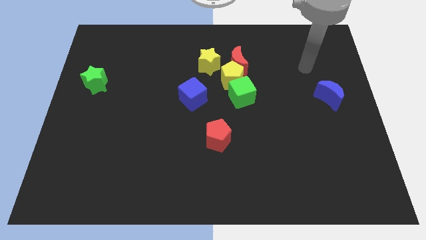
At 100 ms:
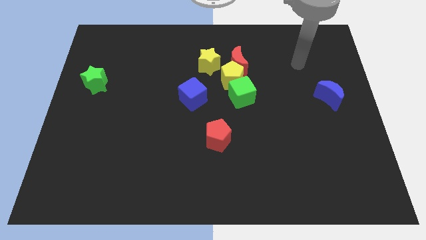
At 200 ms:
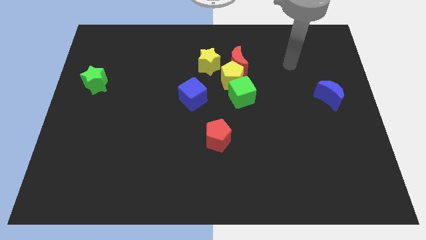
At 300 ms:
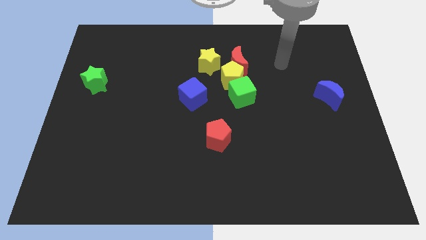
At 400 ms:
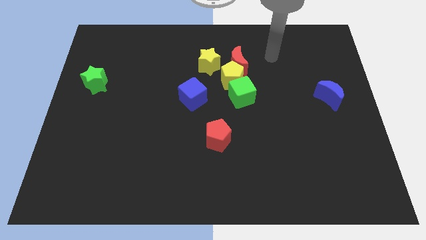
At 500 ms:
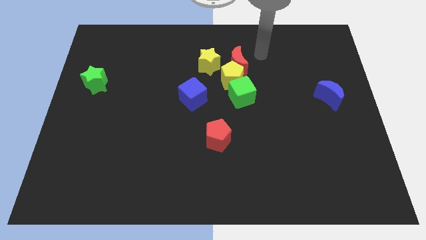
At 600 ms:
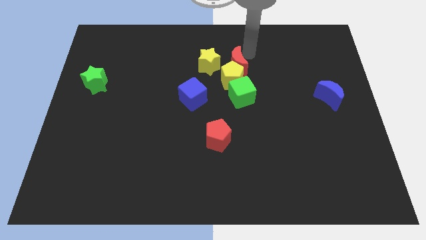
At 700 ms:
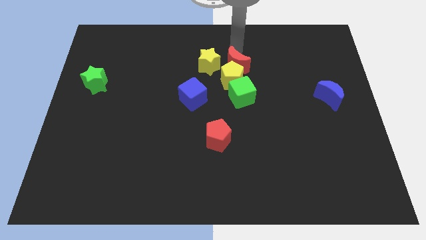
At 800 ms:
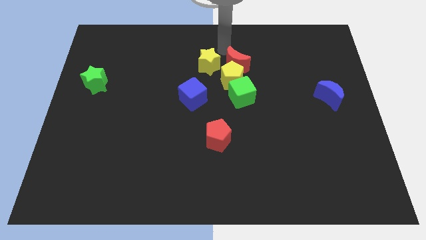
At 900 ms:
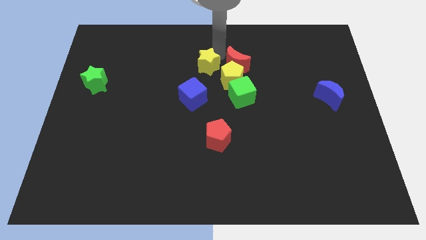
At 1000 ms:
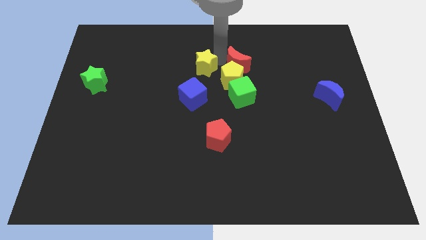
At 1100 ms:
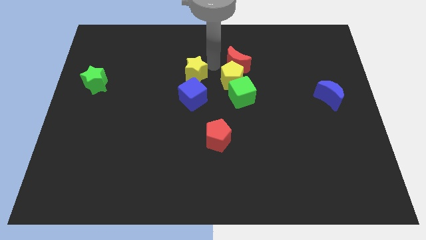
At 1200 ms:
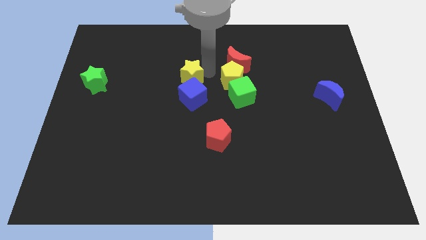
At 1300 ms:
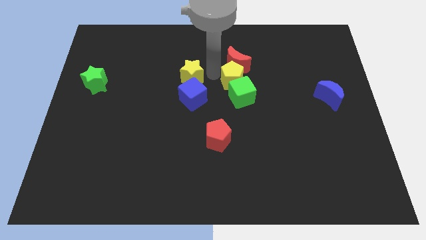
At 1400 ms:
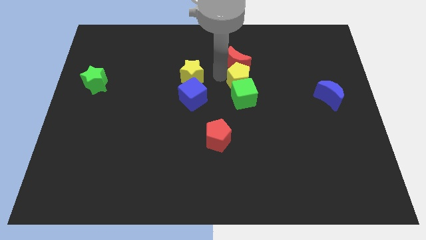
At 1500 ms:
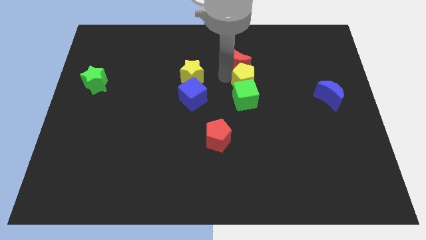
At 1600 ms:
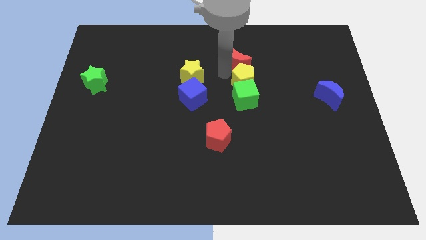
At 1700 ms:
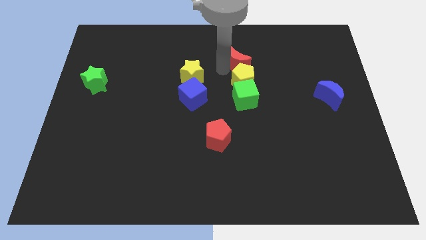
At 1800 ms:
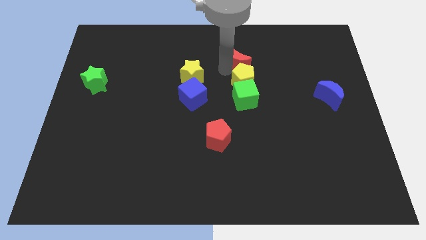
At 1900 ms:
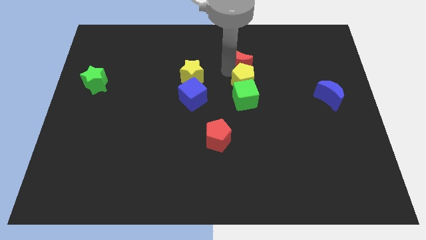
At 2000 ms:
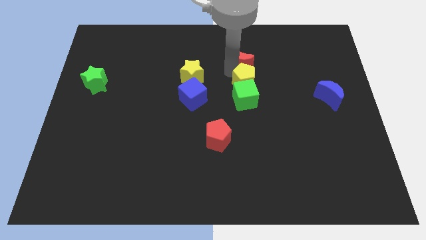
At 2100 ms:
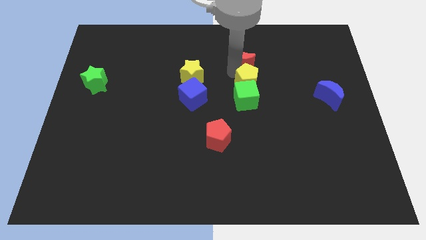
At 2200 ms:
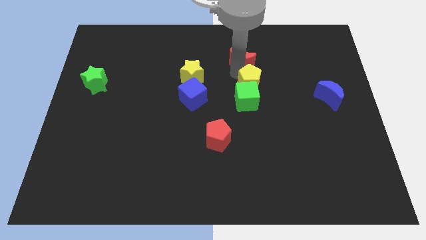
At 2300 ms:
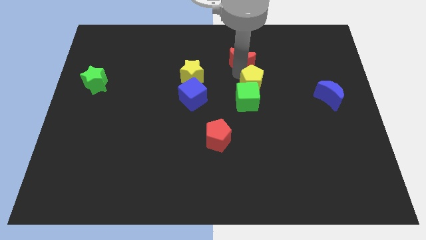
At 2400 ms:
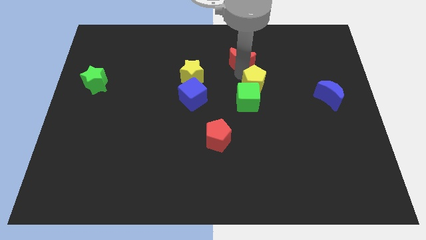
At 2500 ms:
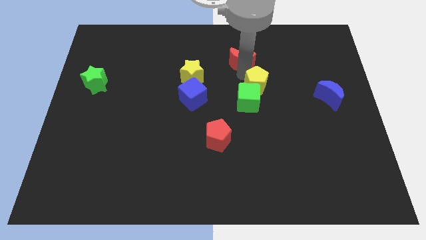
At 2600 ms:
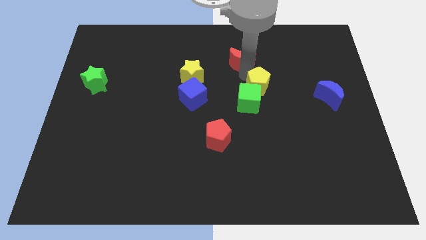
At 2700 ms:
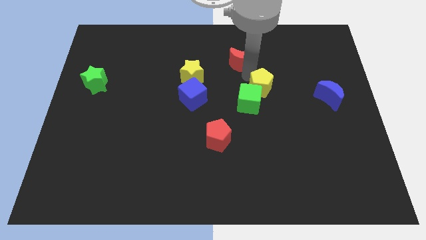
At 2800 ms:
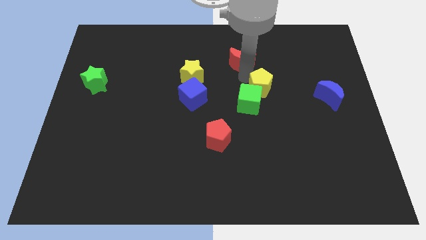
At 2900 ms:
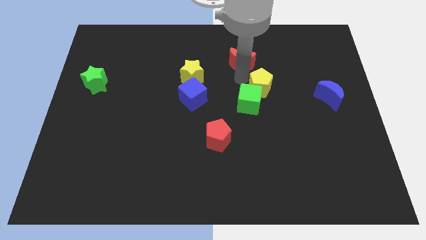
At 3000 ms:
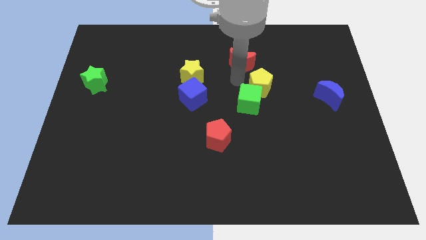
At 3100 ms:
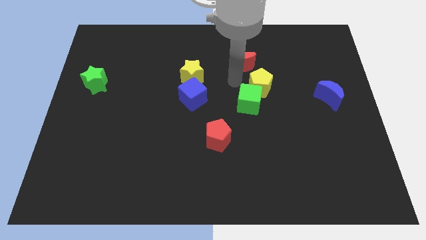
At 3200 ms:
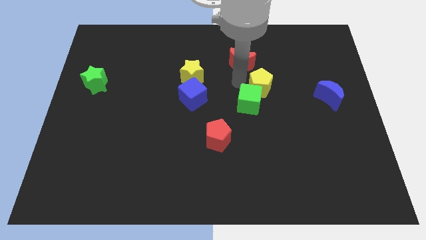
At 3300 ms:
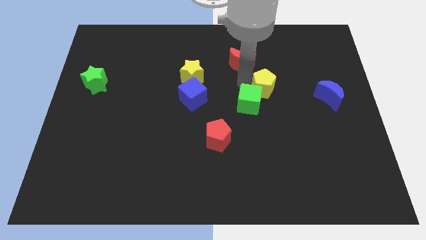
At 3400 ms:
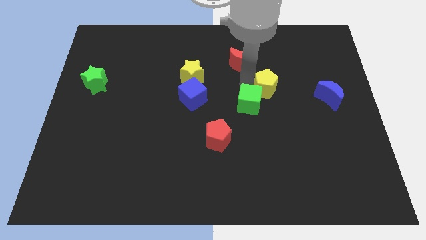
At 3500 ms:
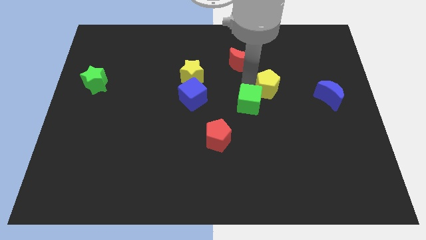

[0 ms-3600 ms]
move the yellow pentagon away from the red moon, green cube, and yellow star

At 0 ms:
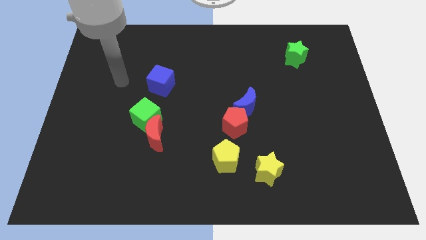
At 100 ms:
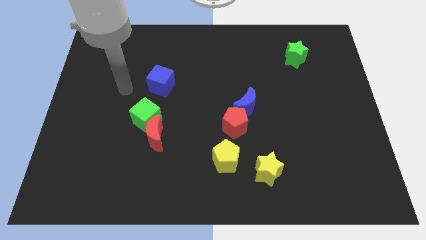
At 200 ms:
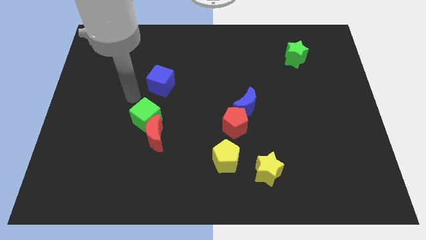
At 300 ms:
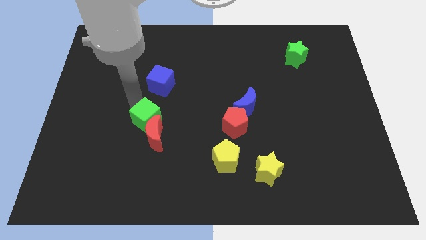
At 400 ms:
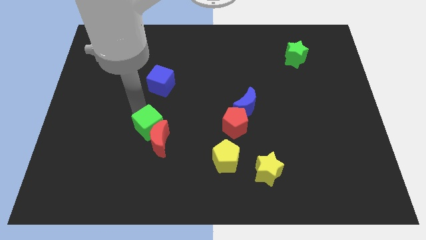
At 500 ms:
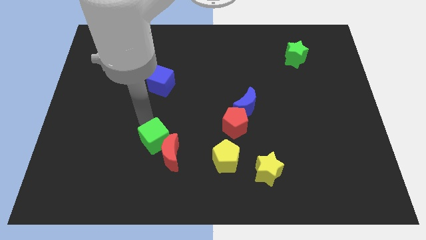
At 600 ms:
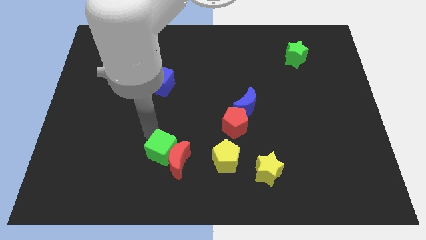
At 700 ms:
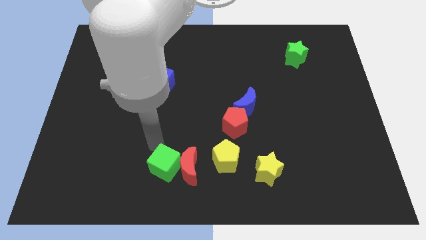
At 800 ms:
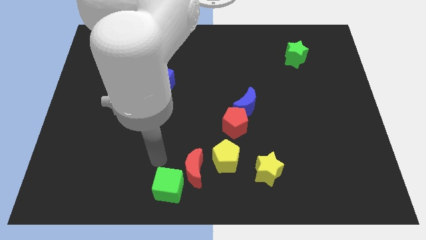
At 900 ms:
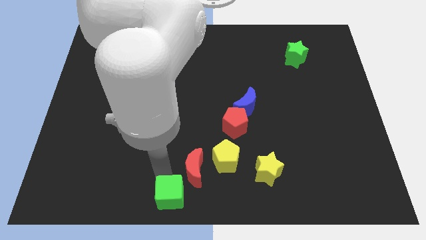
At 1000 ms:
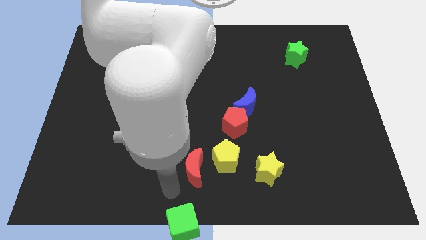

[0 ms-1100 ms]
move the red moon away from the green cube

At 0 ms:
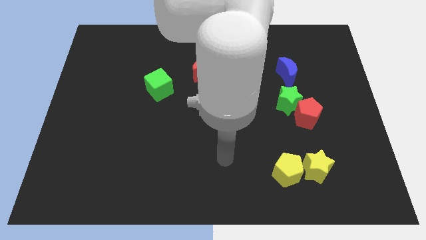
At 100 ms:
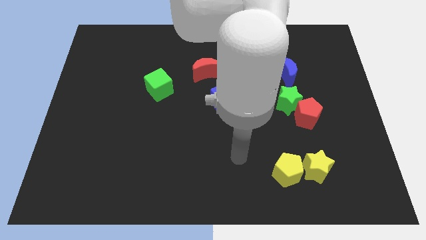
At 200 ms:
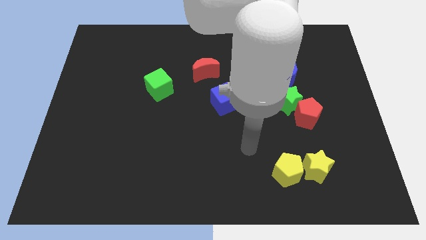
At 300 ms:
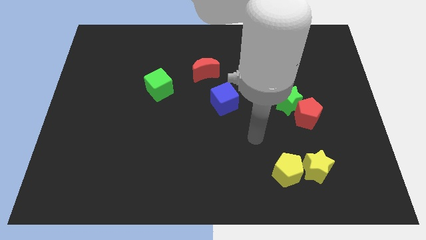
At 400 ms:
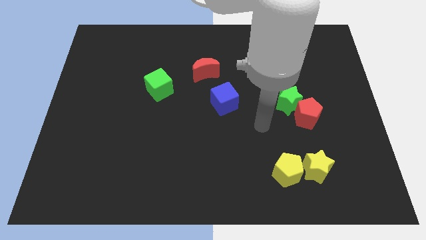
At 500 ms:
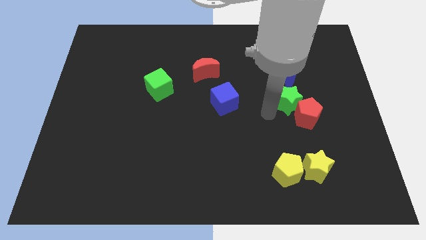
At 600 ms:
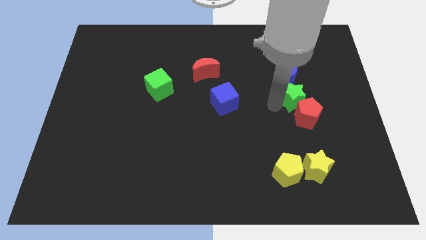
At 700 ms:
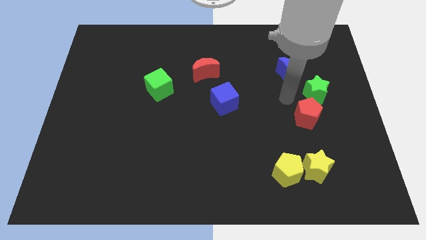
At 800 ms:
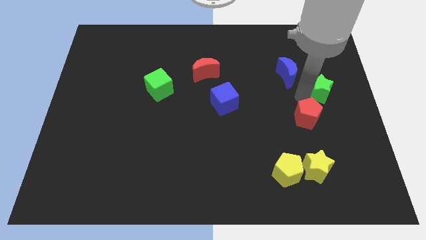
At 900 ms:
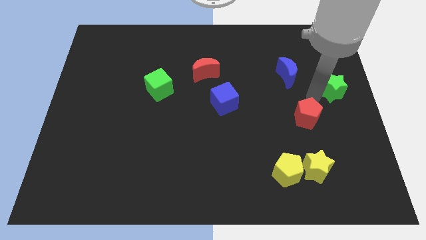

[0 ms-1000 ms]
separate the red pentagon from the green star

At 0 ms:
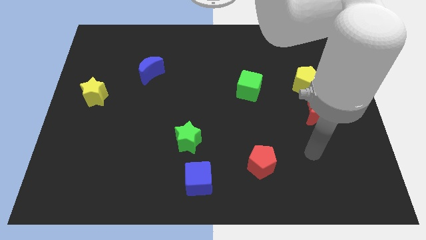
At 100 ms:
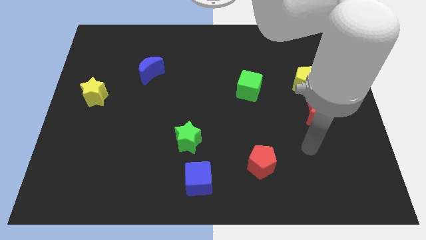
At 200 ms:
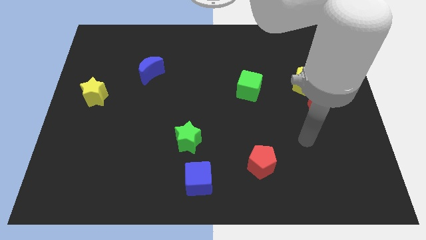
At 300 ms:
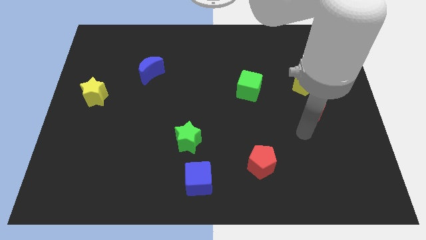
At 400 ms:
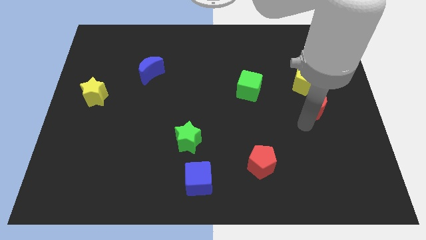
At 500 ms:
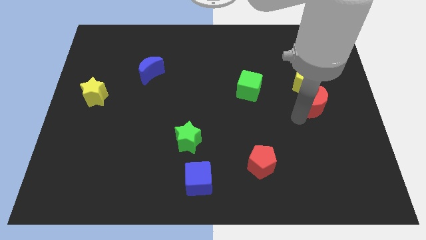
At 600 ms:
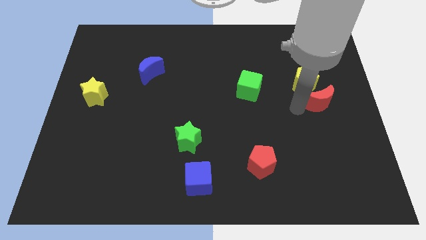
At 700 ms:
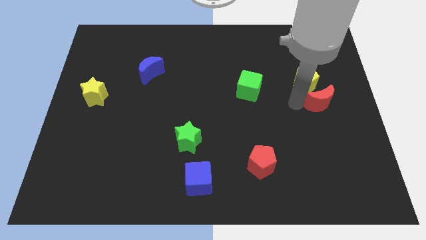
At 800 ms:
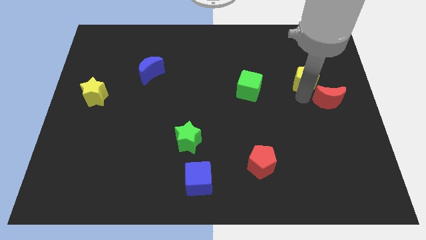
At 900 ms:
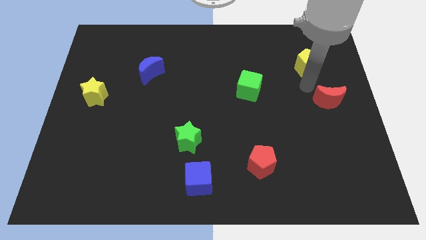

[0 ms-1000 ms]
pull the red moon apart from the yellow pentagon

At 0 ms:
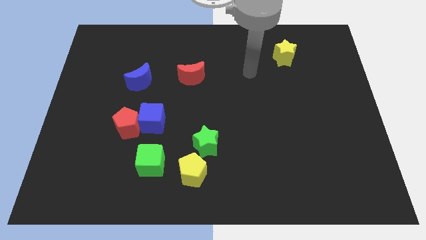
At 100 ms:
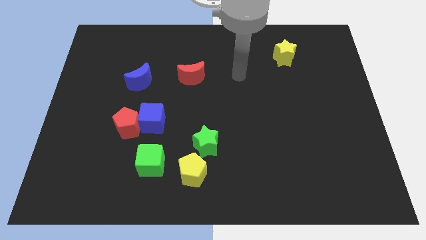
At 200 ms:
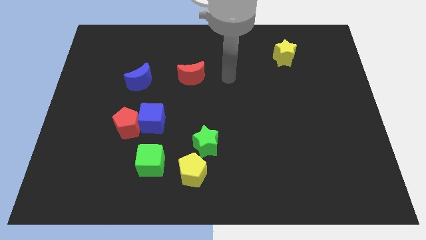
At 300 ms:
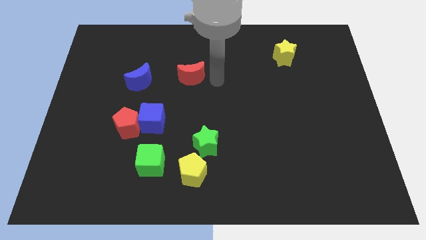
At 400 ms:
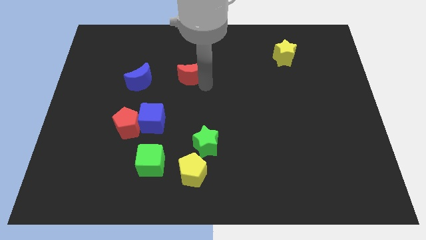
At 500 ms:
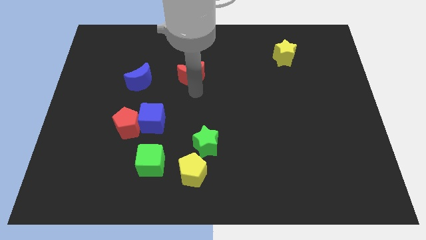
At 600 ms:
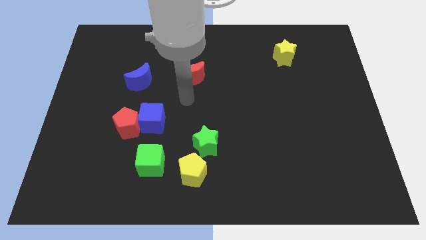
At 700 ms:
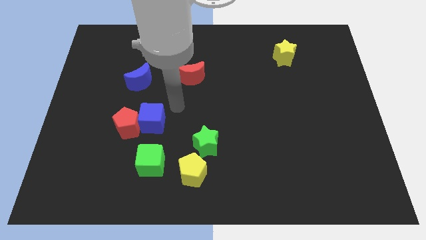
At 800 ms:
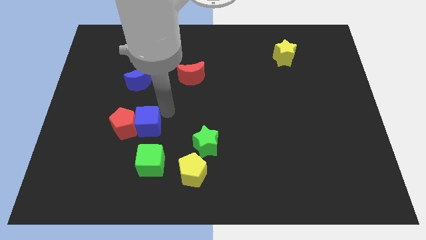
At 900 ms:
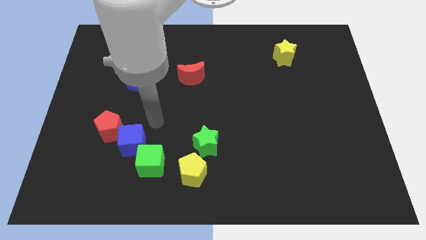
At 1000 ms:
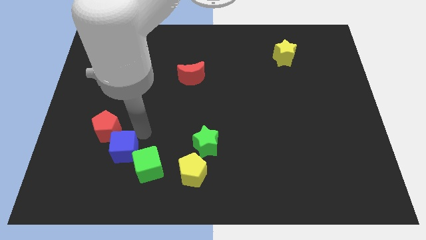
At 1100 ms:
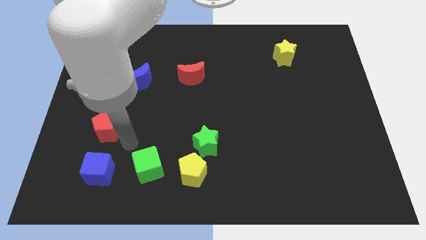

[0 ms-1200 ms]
separate the red pentagon from the blue cube

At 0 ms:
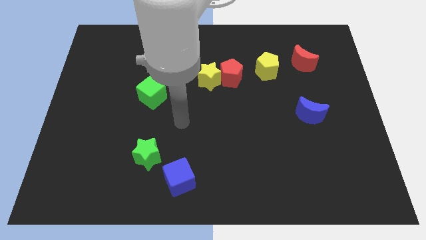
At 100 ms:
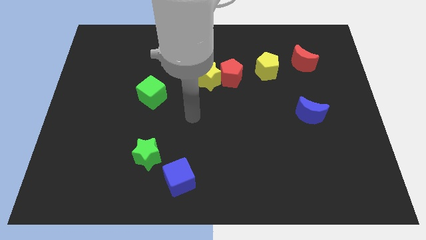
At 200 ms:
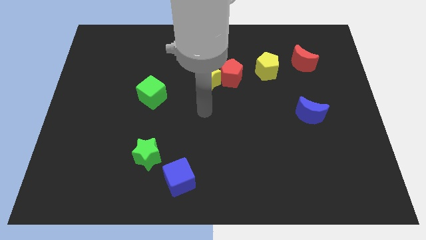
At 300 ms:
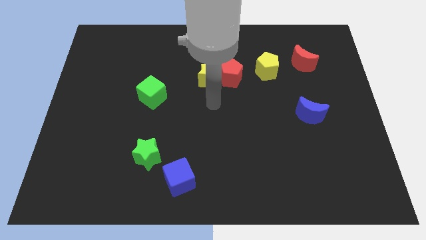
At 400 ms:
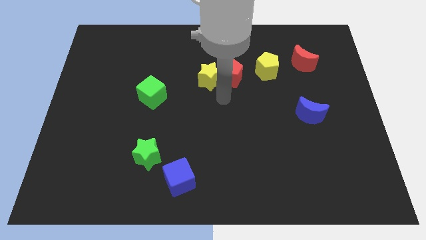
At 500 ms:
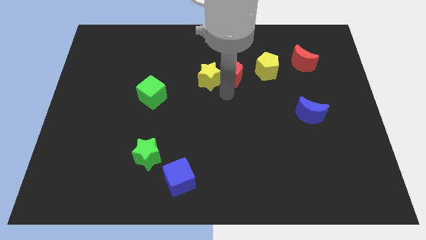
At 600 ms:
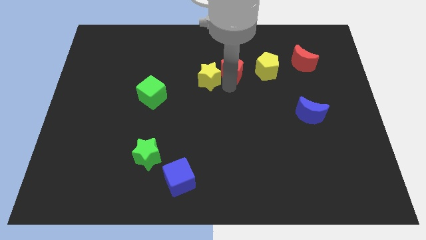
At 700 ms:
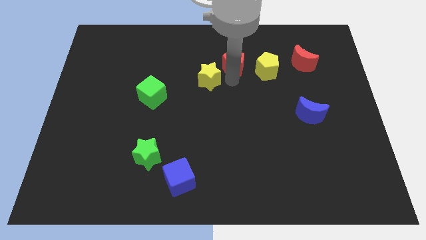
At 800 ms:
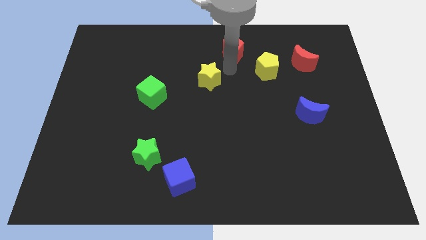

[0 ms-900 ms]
move the yellow star away from the red pentagon

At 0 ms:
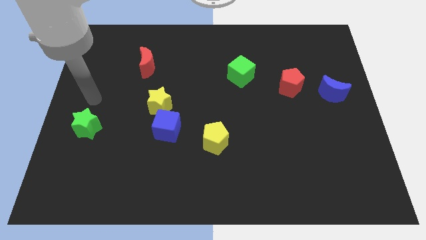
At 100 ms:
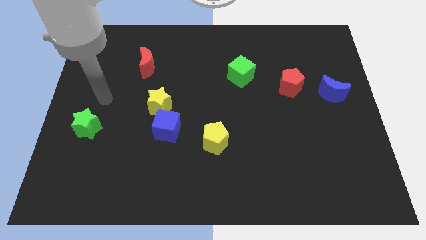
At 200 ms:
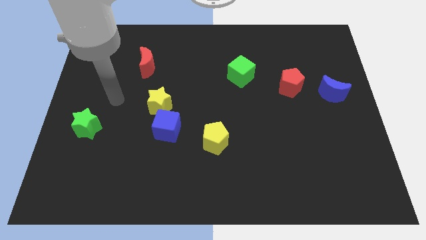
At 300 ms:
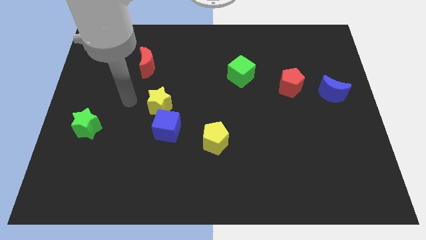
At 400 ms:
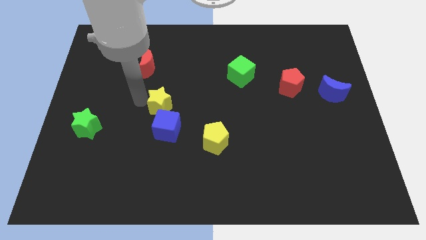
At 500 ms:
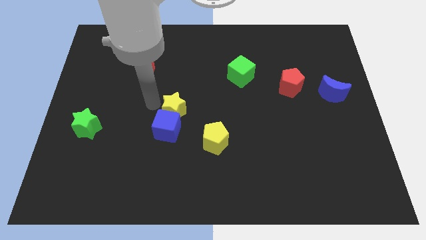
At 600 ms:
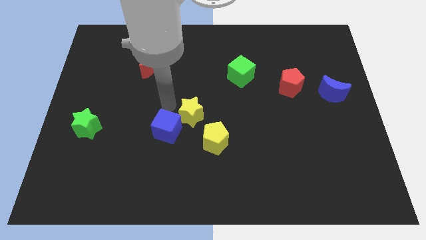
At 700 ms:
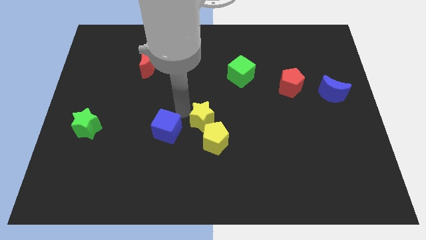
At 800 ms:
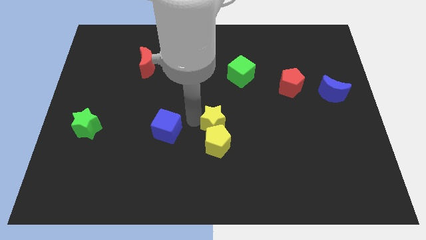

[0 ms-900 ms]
separate the blue cube from the yellow star
